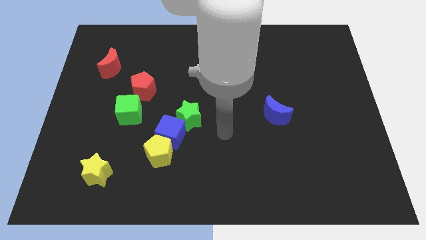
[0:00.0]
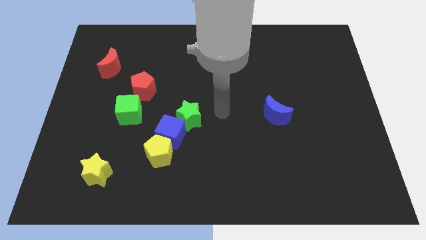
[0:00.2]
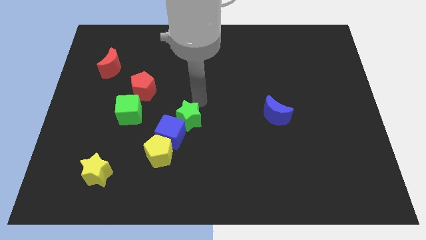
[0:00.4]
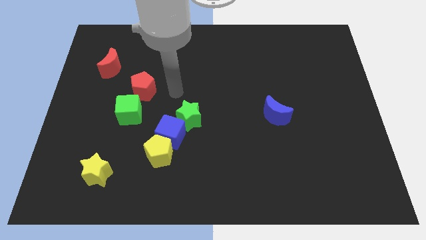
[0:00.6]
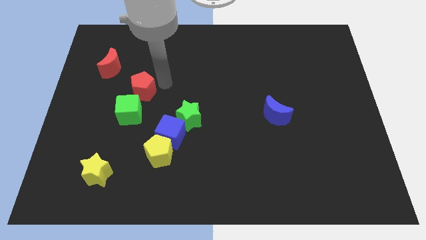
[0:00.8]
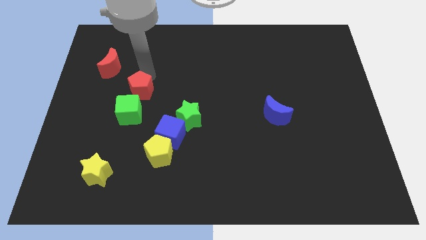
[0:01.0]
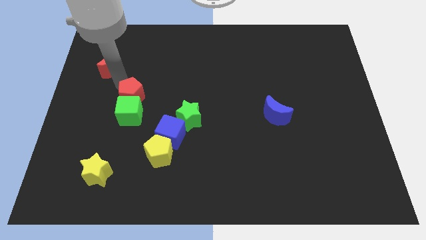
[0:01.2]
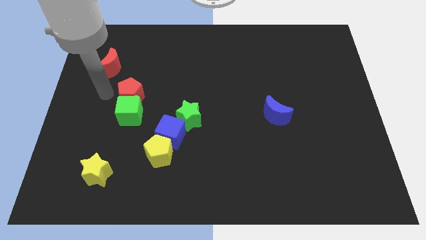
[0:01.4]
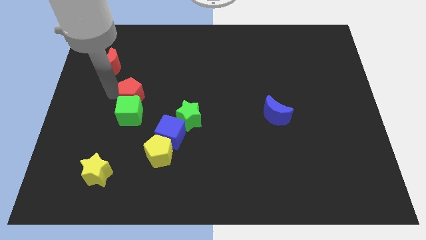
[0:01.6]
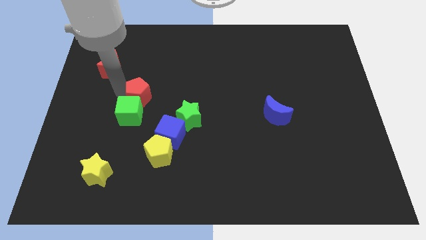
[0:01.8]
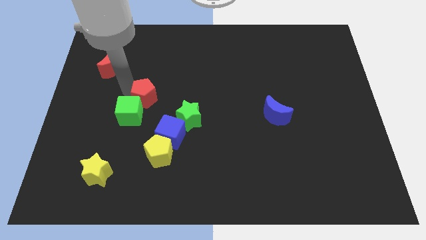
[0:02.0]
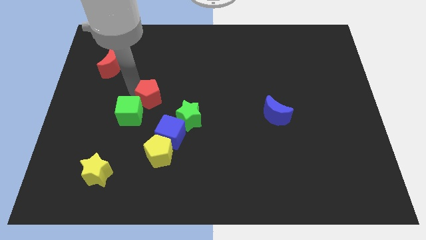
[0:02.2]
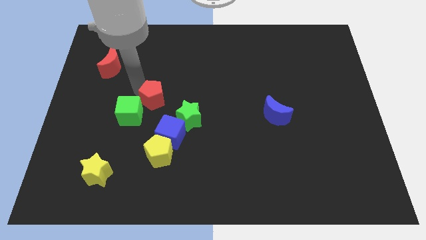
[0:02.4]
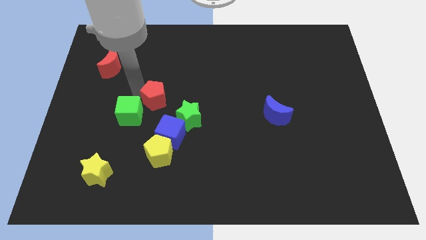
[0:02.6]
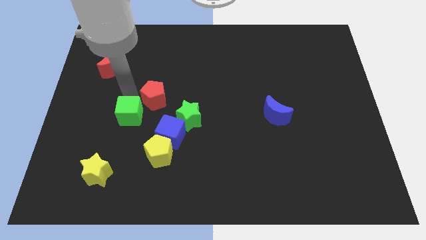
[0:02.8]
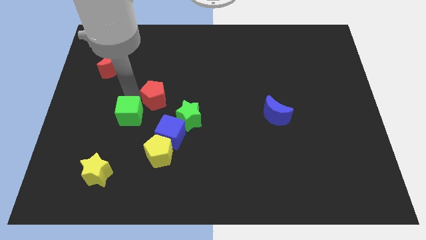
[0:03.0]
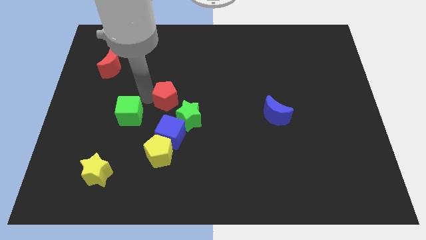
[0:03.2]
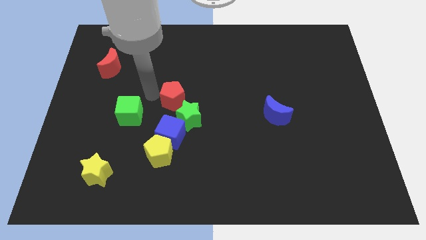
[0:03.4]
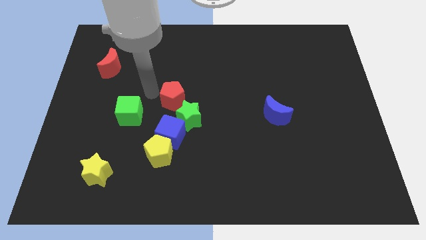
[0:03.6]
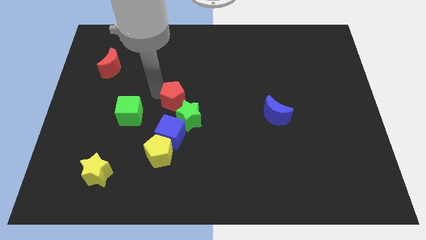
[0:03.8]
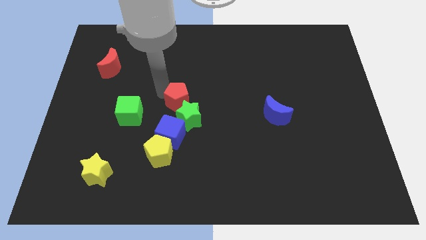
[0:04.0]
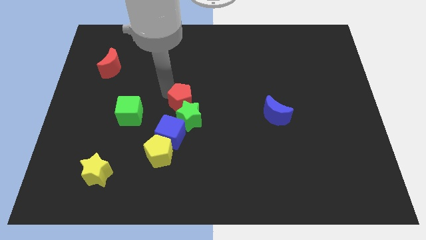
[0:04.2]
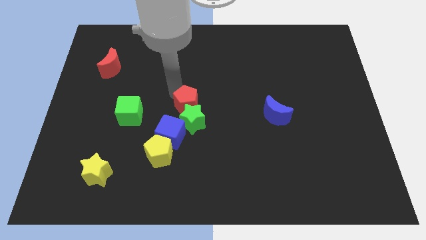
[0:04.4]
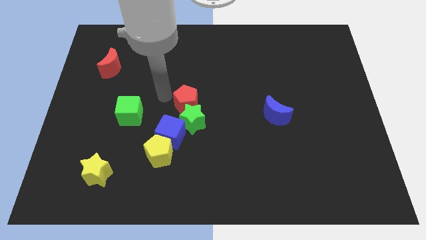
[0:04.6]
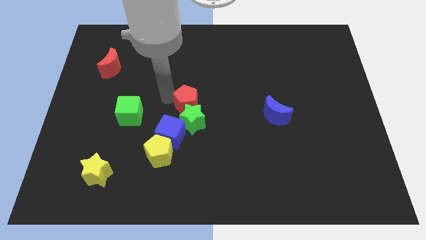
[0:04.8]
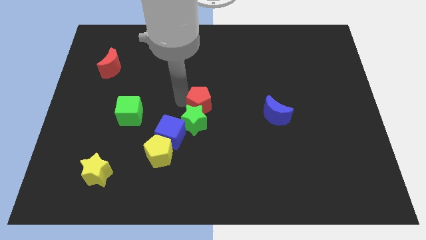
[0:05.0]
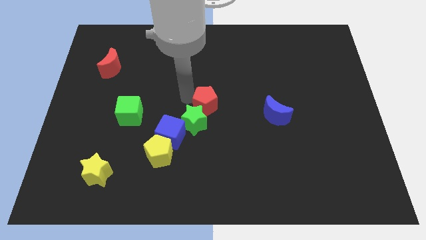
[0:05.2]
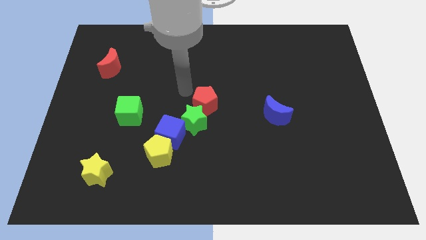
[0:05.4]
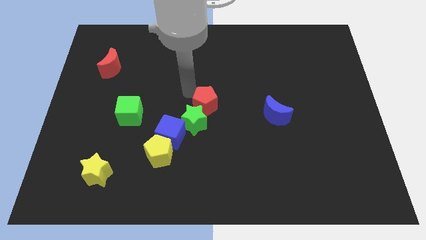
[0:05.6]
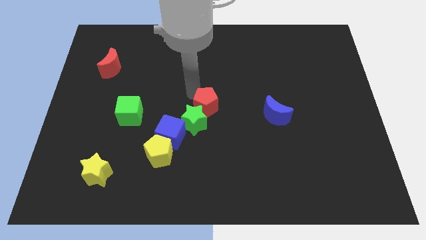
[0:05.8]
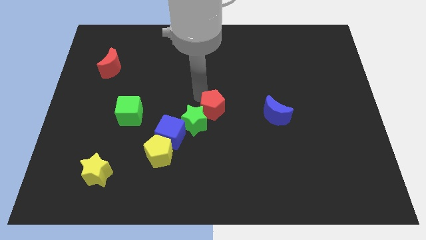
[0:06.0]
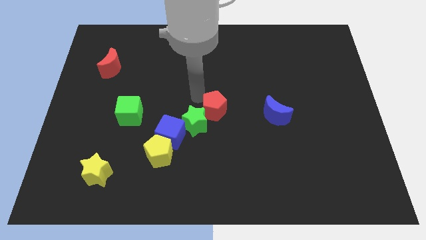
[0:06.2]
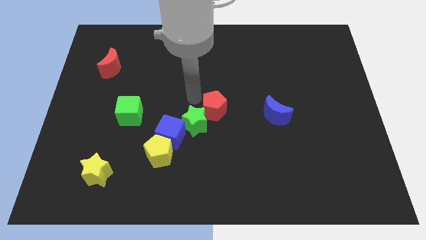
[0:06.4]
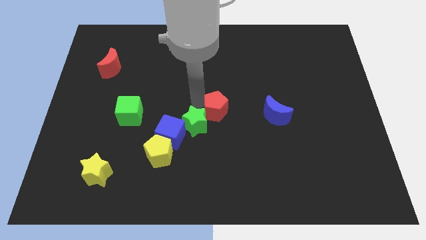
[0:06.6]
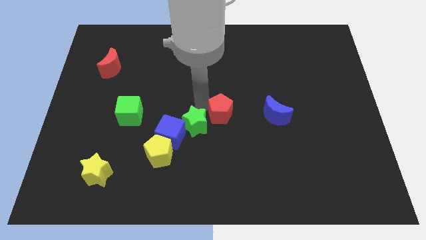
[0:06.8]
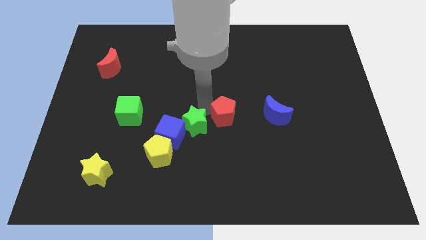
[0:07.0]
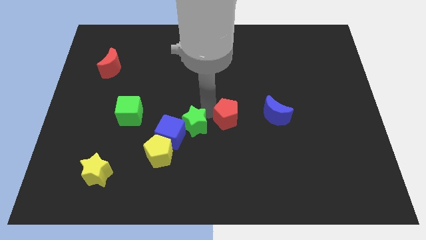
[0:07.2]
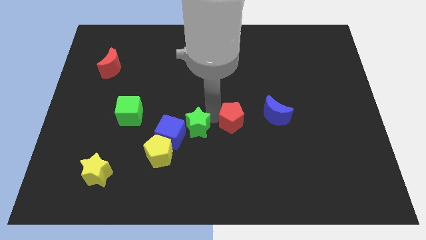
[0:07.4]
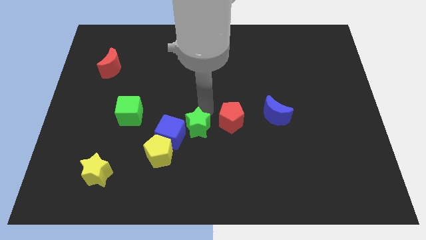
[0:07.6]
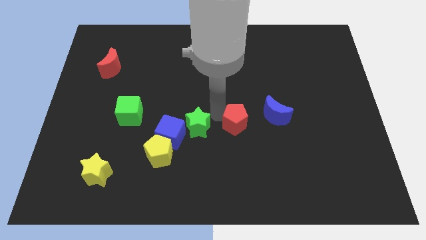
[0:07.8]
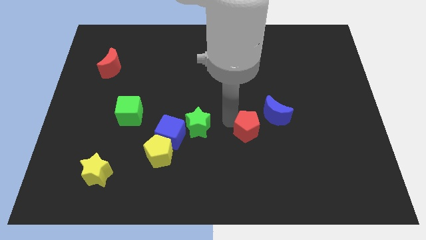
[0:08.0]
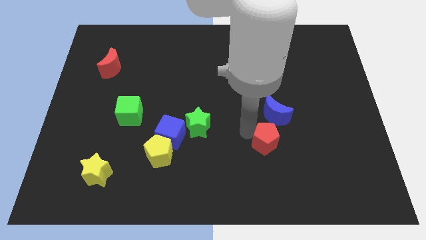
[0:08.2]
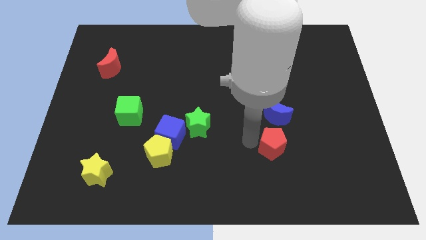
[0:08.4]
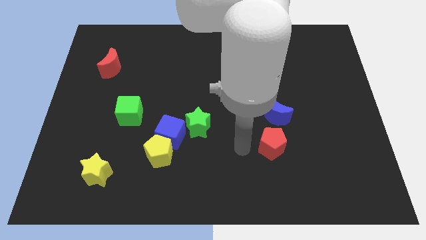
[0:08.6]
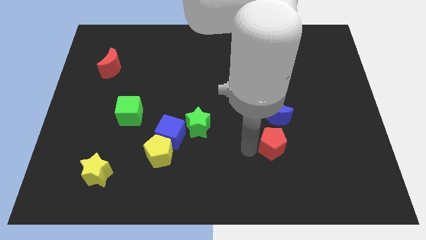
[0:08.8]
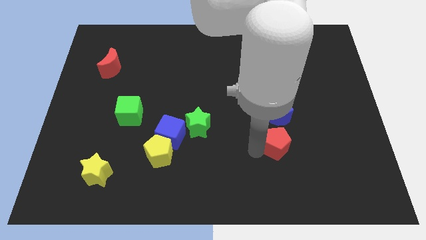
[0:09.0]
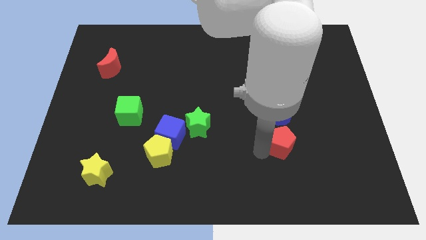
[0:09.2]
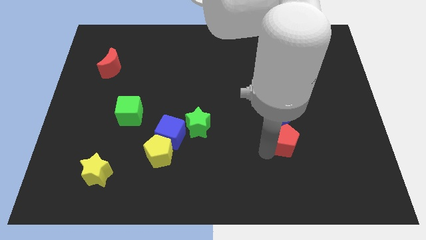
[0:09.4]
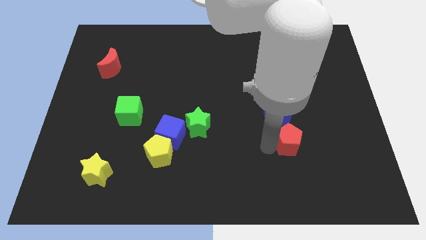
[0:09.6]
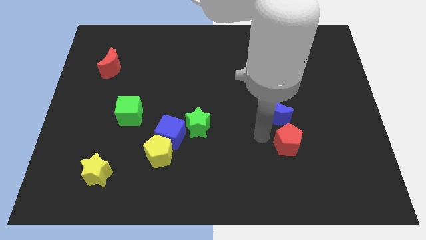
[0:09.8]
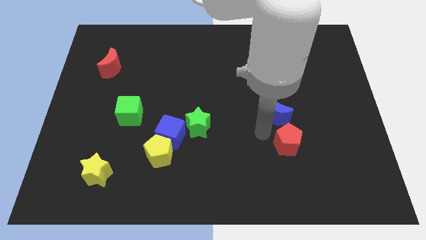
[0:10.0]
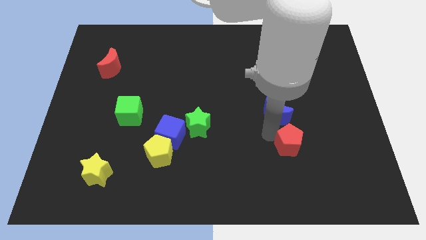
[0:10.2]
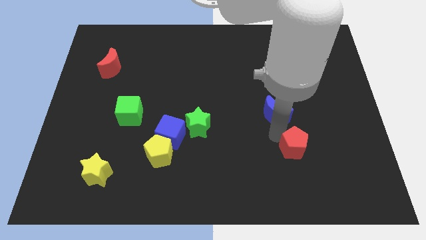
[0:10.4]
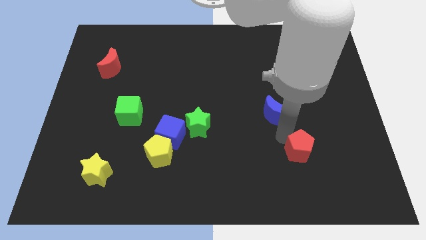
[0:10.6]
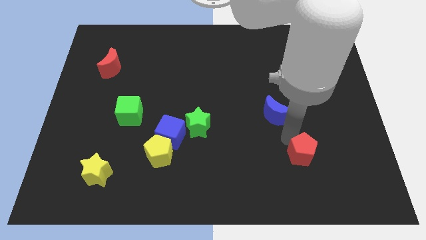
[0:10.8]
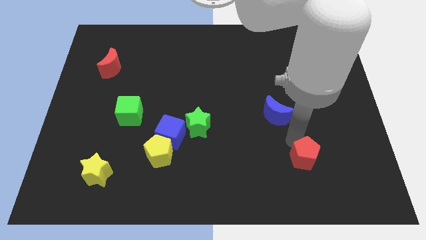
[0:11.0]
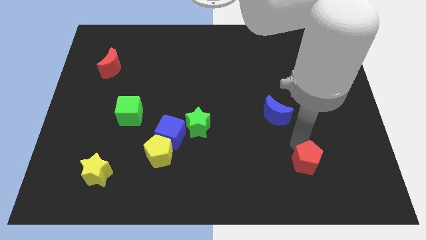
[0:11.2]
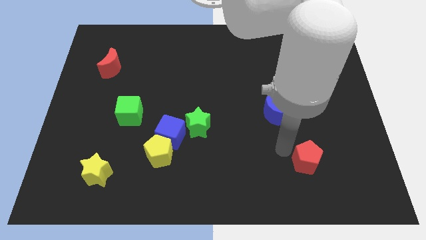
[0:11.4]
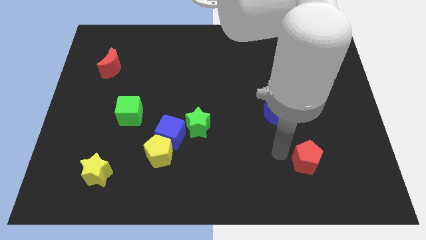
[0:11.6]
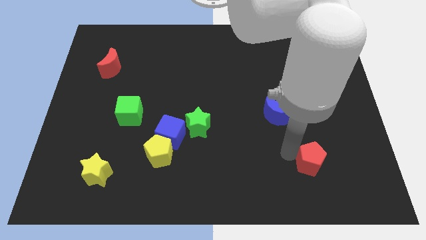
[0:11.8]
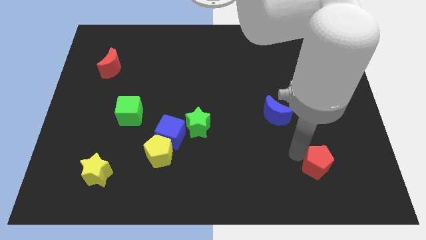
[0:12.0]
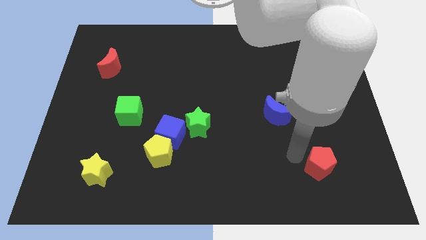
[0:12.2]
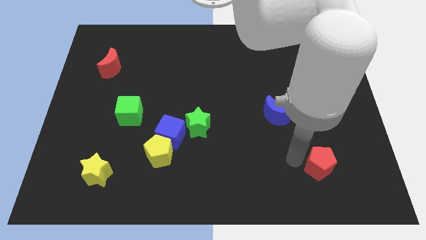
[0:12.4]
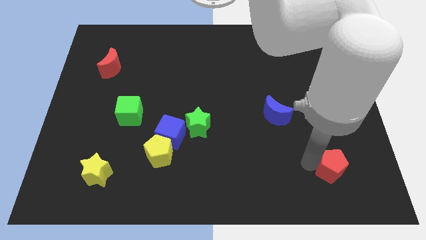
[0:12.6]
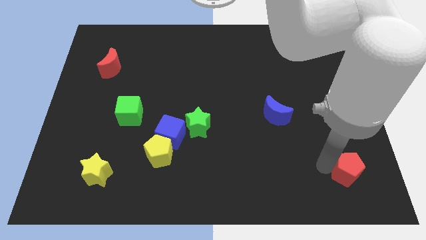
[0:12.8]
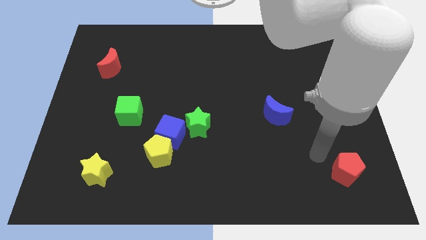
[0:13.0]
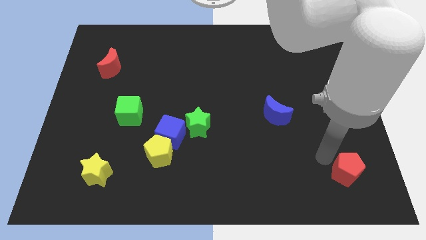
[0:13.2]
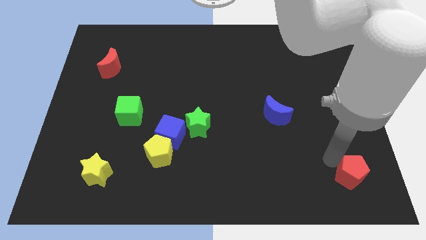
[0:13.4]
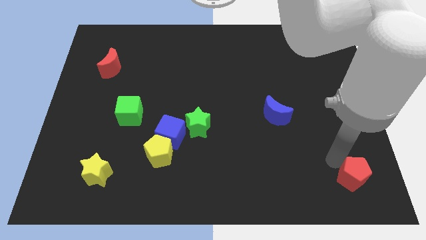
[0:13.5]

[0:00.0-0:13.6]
push the red pentagon to the lower right corner
